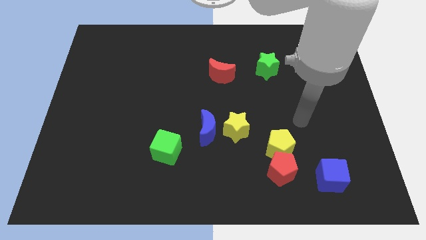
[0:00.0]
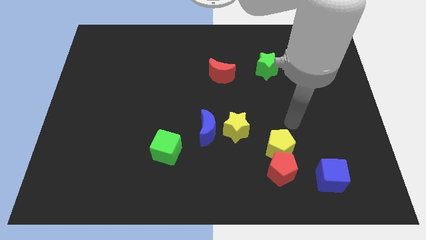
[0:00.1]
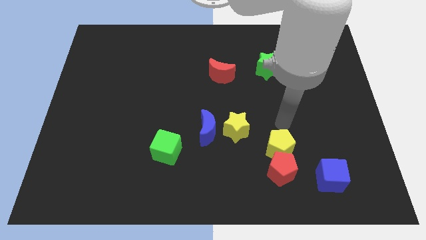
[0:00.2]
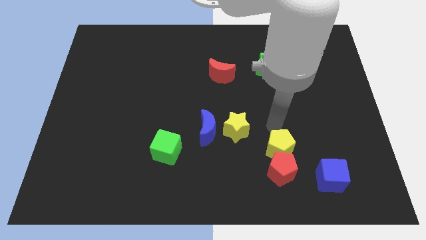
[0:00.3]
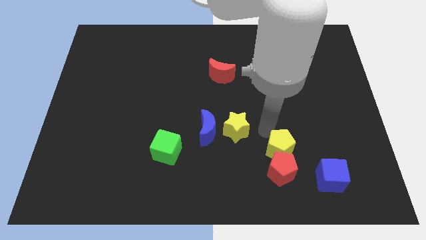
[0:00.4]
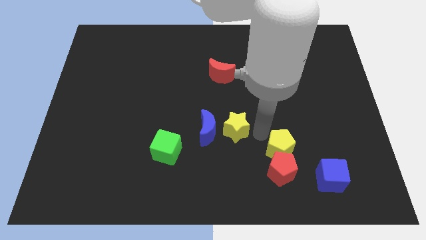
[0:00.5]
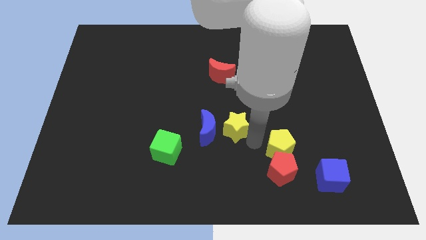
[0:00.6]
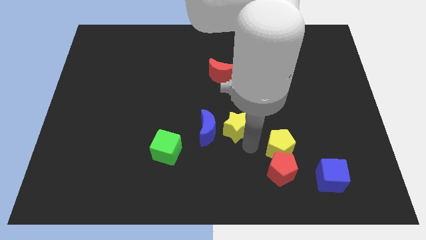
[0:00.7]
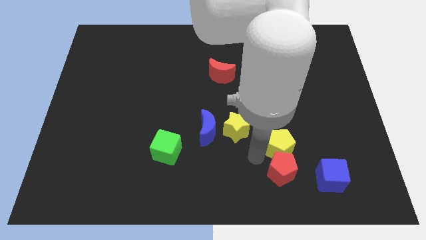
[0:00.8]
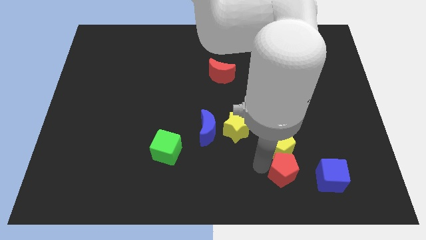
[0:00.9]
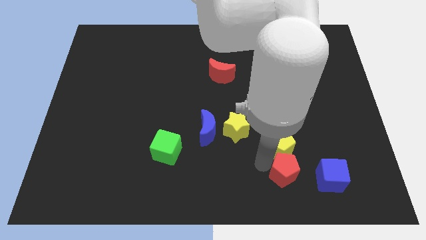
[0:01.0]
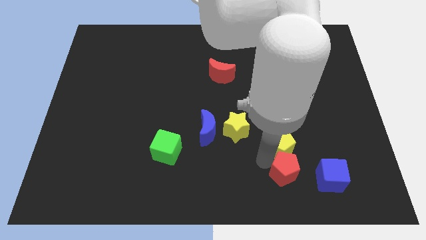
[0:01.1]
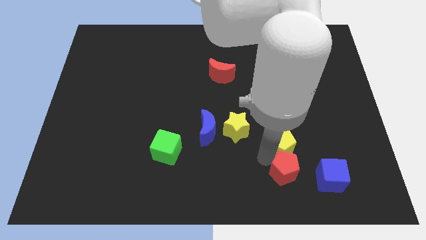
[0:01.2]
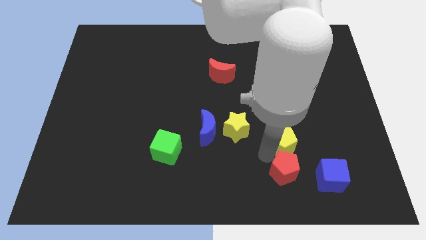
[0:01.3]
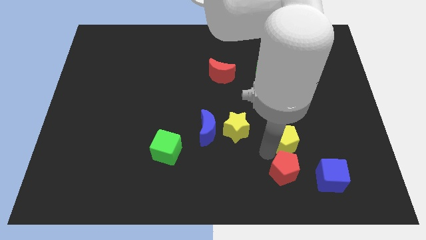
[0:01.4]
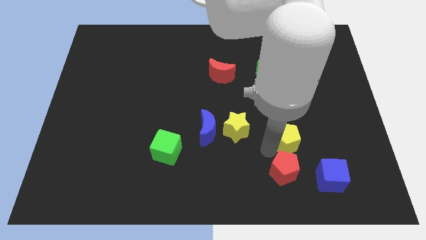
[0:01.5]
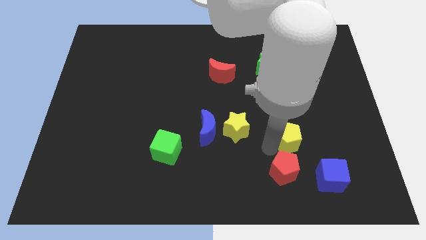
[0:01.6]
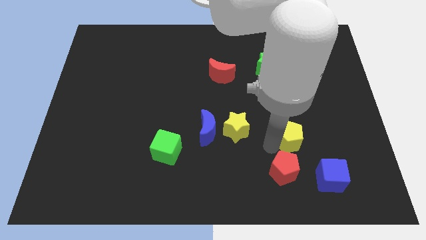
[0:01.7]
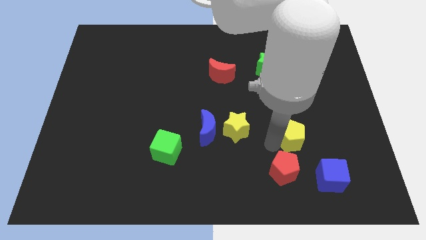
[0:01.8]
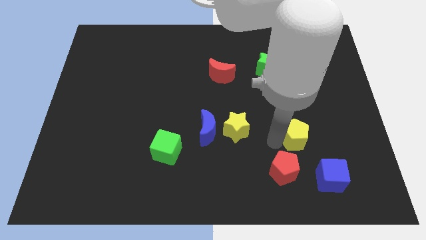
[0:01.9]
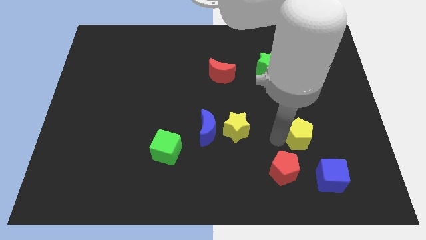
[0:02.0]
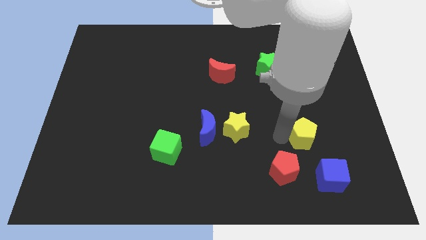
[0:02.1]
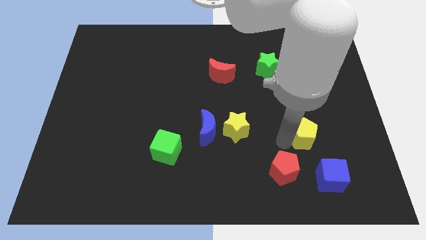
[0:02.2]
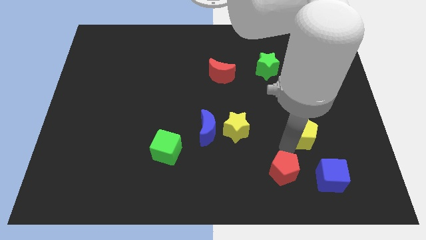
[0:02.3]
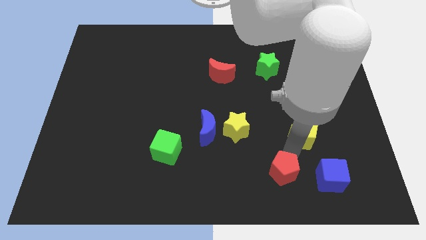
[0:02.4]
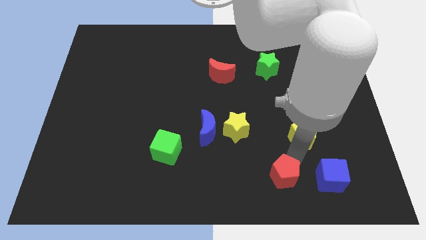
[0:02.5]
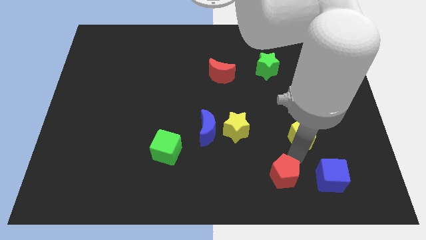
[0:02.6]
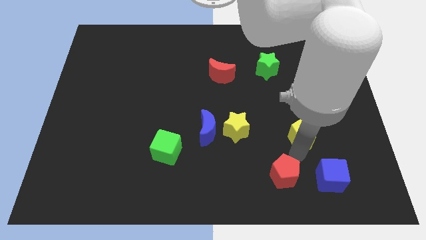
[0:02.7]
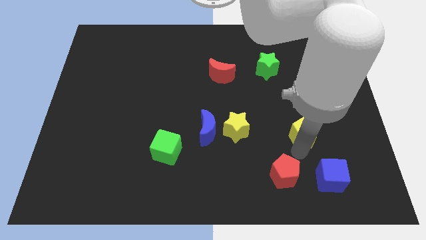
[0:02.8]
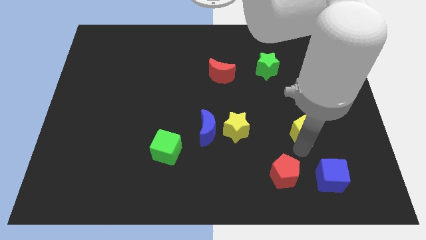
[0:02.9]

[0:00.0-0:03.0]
slide the yellow pentagon a little bit diagonally upwards and right

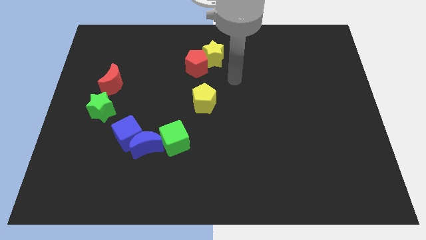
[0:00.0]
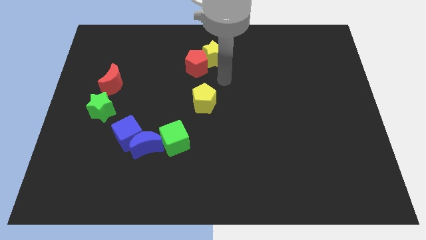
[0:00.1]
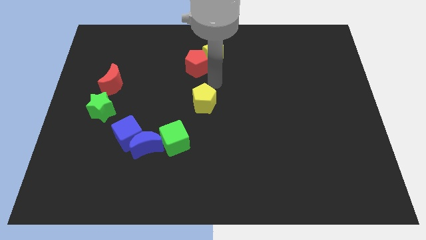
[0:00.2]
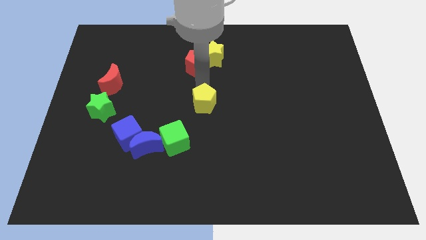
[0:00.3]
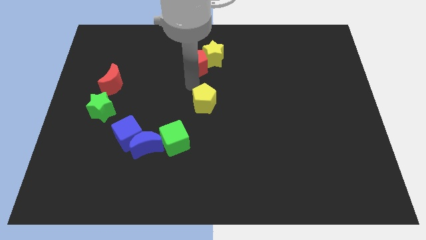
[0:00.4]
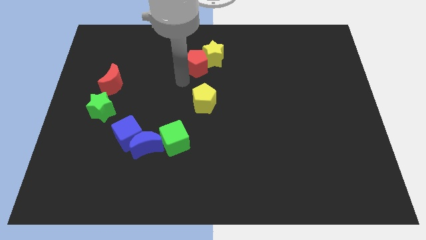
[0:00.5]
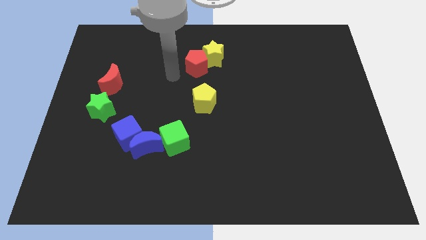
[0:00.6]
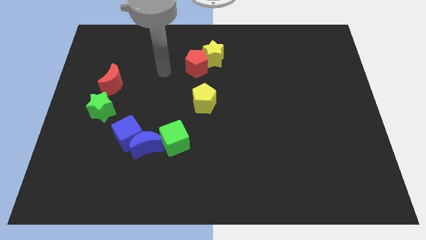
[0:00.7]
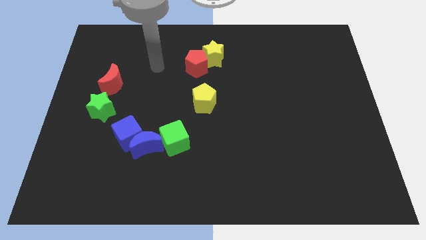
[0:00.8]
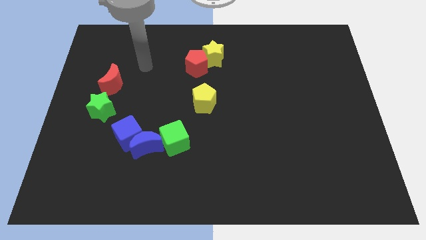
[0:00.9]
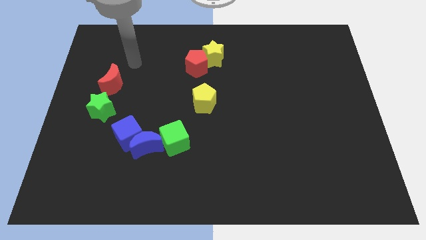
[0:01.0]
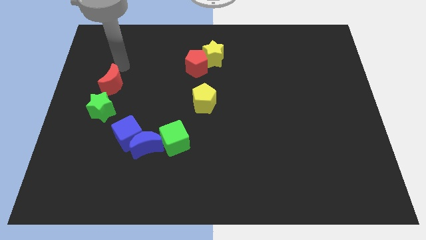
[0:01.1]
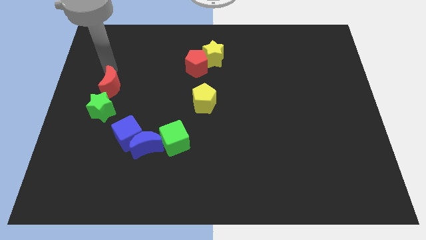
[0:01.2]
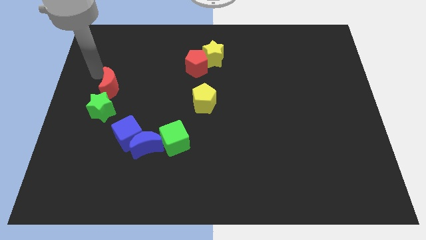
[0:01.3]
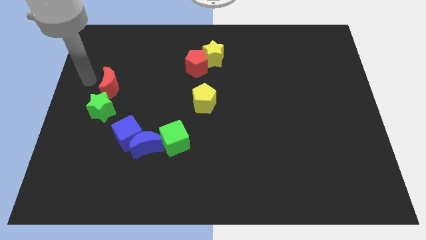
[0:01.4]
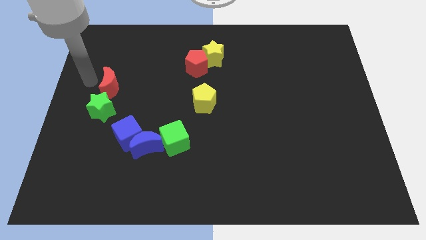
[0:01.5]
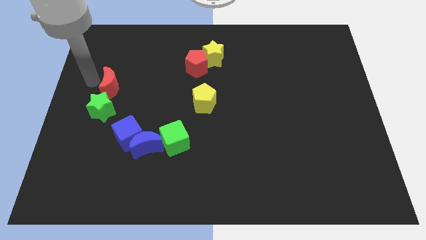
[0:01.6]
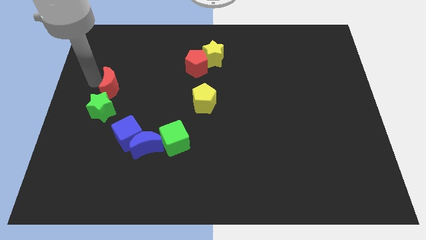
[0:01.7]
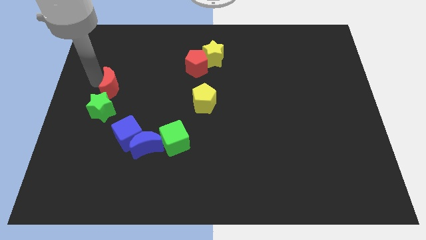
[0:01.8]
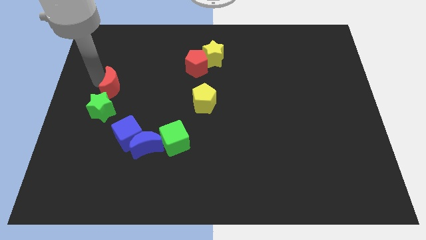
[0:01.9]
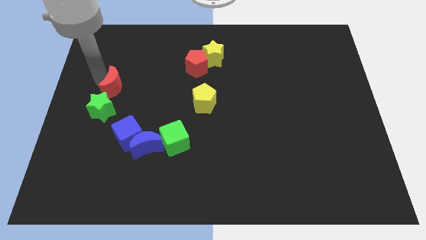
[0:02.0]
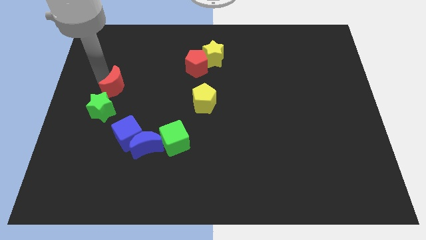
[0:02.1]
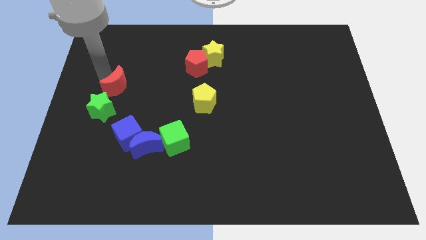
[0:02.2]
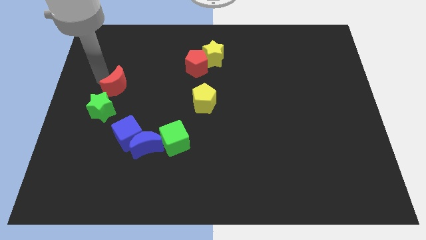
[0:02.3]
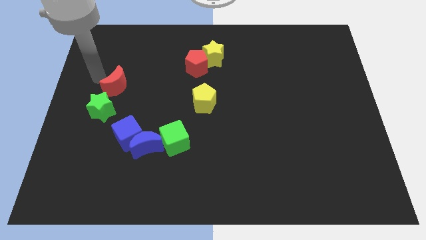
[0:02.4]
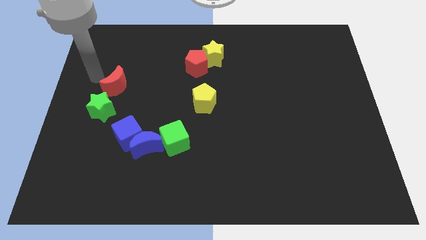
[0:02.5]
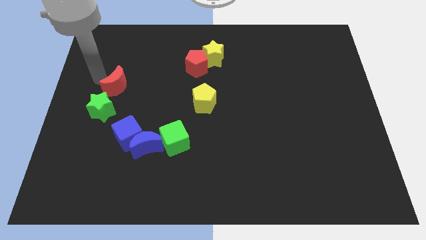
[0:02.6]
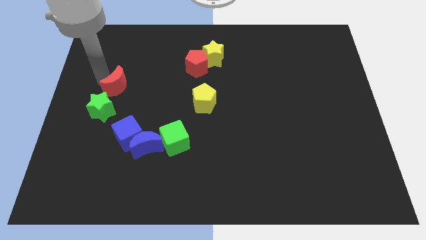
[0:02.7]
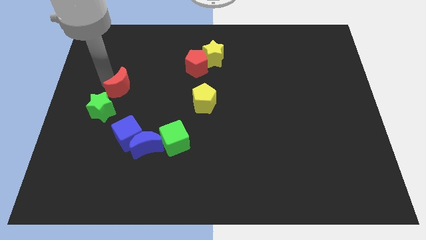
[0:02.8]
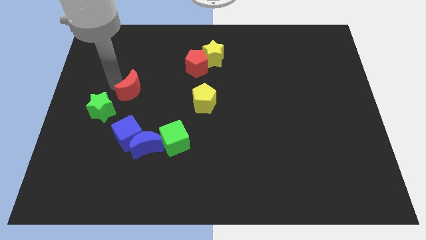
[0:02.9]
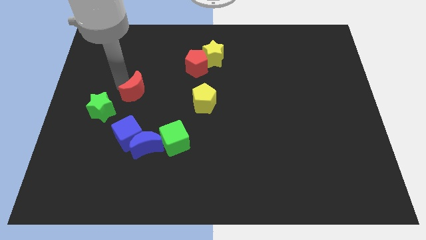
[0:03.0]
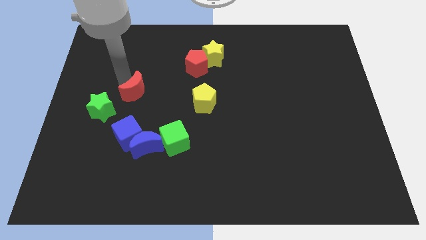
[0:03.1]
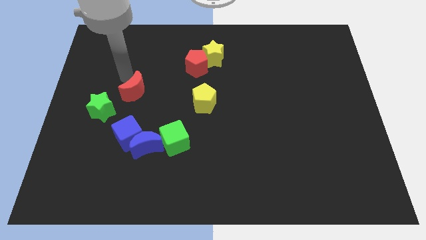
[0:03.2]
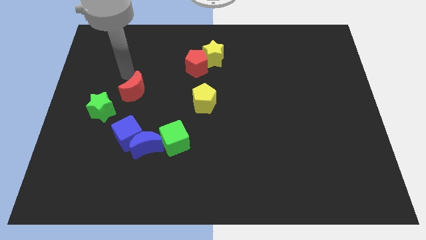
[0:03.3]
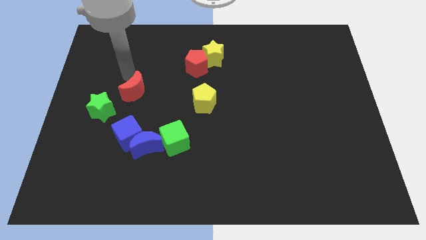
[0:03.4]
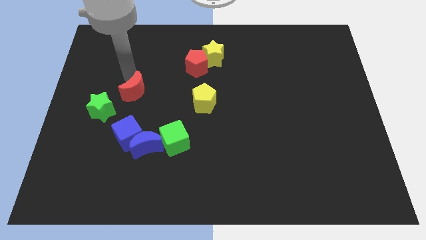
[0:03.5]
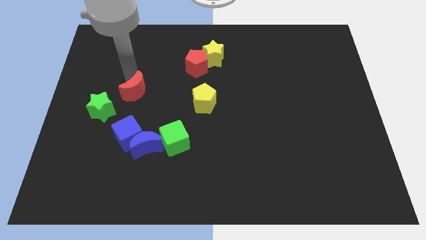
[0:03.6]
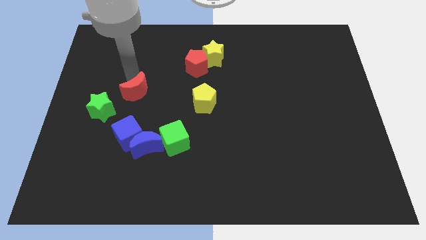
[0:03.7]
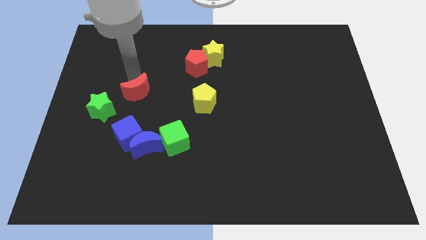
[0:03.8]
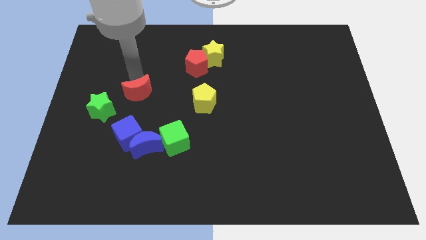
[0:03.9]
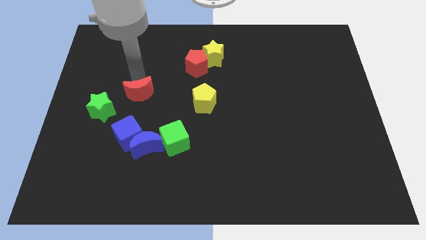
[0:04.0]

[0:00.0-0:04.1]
move the red moon downwards and right diagonally a little bit

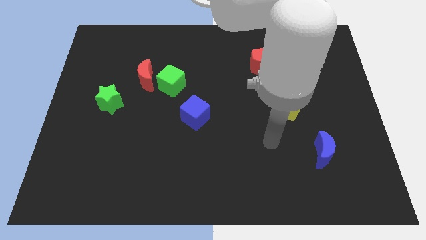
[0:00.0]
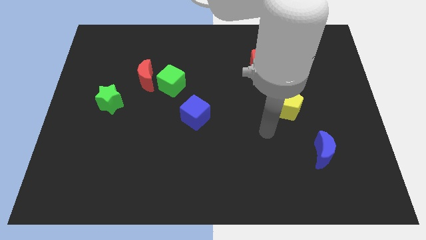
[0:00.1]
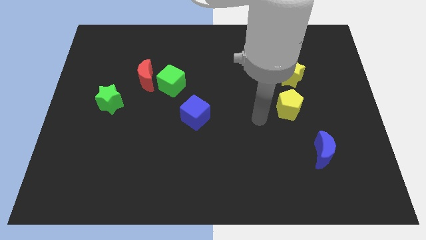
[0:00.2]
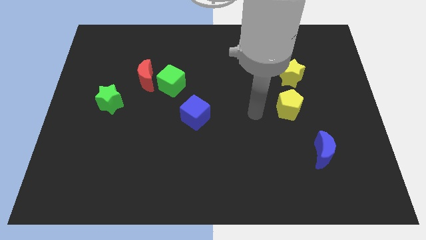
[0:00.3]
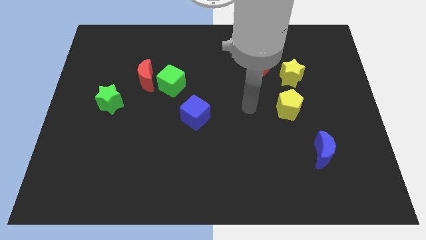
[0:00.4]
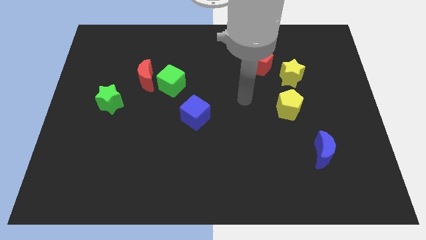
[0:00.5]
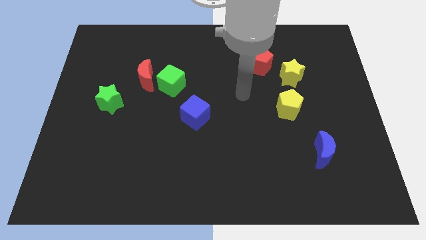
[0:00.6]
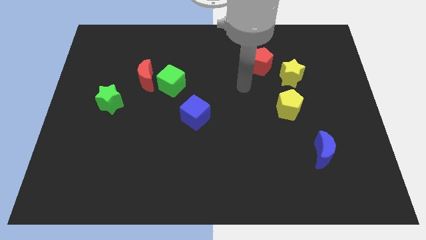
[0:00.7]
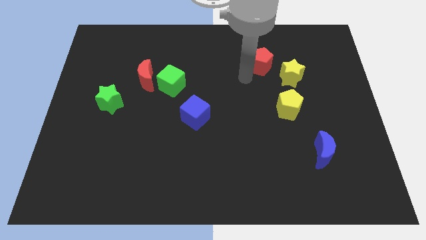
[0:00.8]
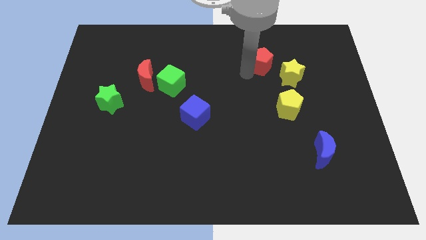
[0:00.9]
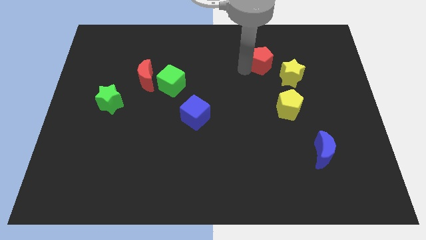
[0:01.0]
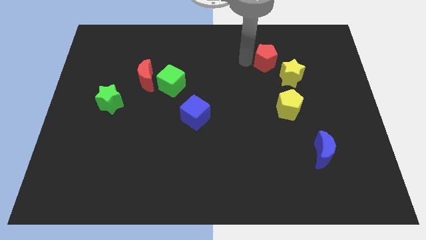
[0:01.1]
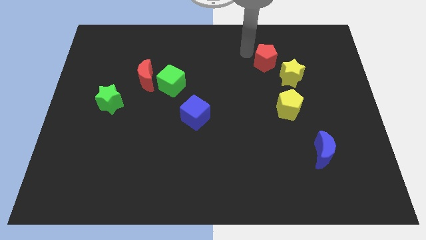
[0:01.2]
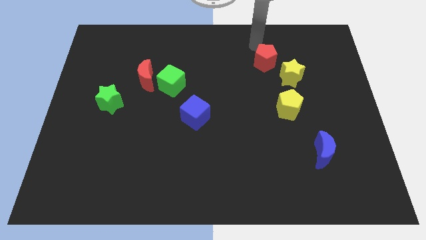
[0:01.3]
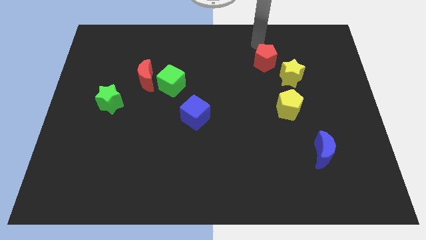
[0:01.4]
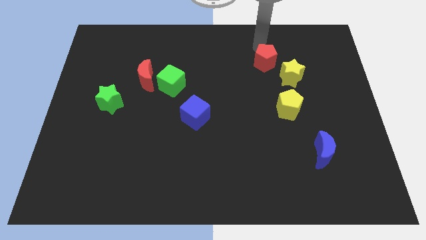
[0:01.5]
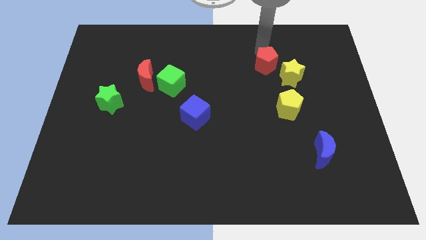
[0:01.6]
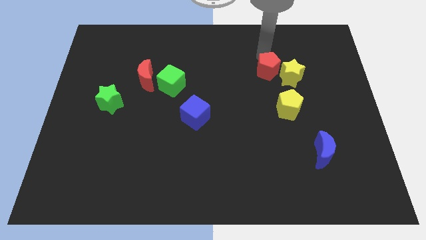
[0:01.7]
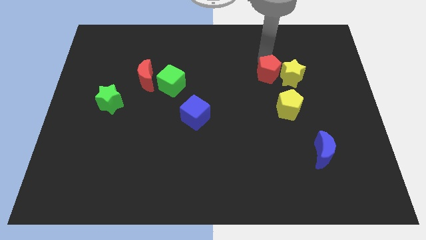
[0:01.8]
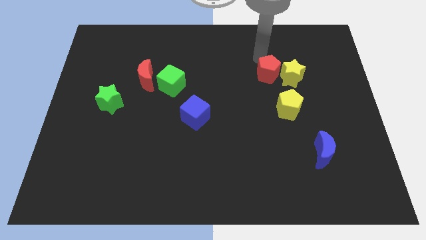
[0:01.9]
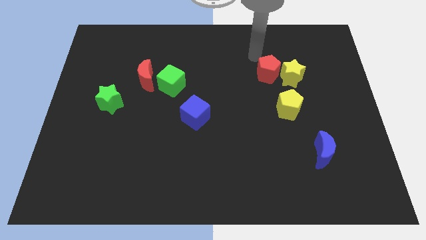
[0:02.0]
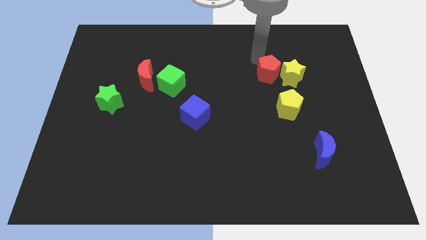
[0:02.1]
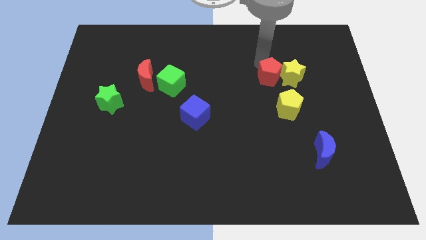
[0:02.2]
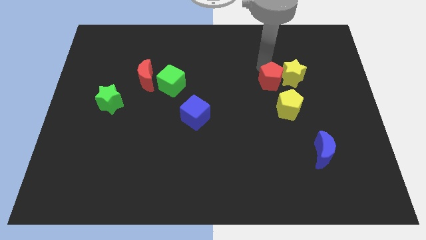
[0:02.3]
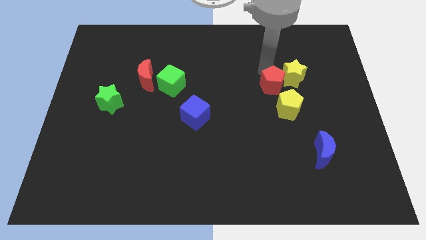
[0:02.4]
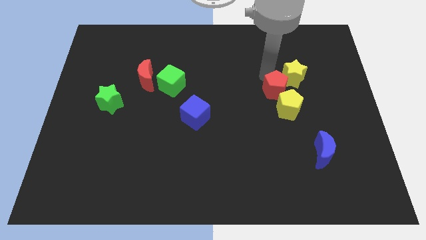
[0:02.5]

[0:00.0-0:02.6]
slightly push the red pentagon downwards and to the right diagonally
